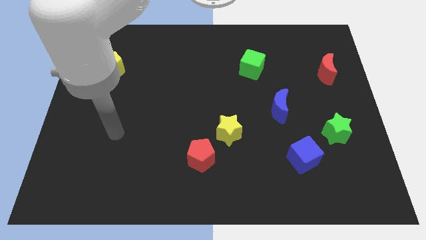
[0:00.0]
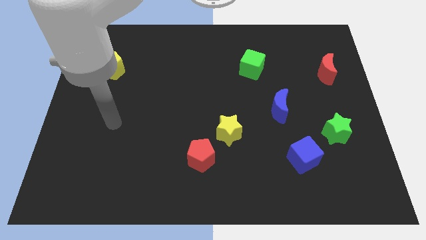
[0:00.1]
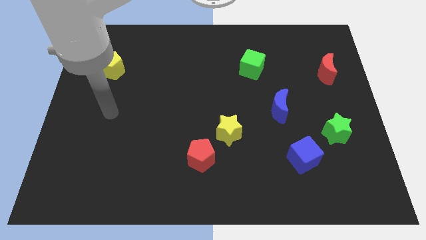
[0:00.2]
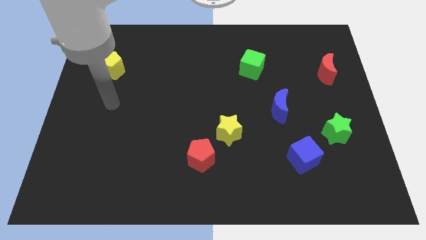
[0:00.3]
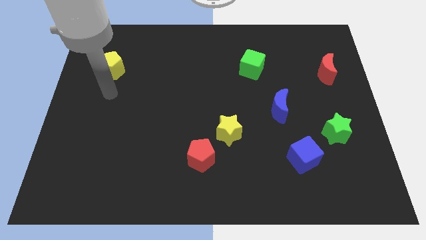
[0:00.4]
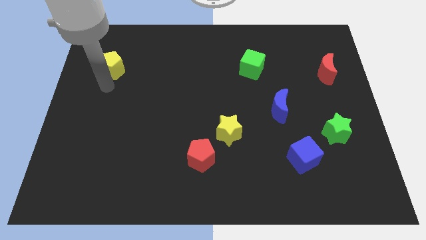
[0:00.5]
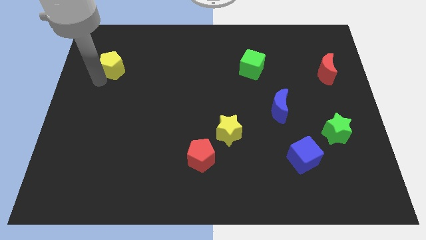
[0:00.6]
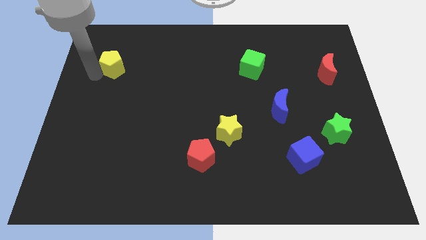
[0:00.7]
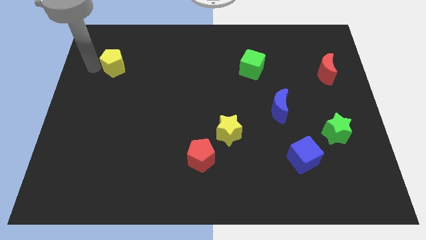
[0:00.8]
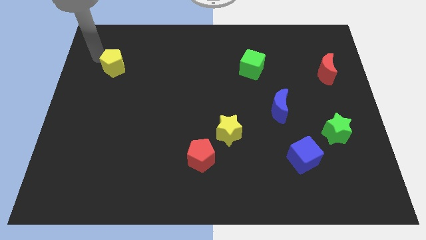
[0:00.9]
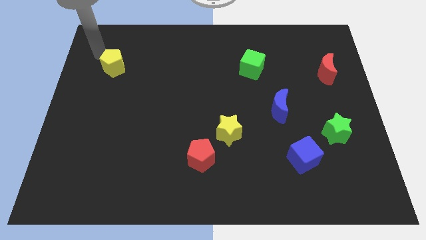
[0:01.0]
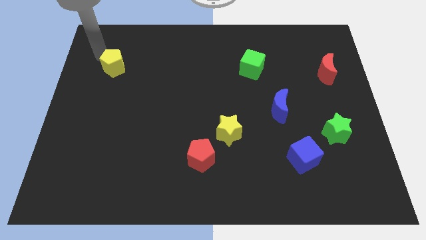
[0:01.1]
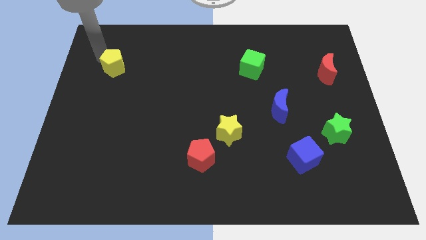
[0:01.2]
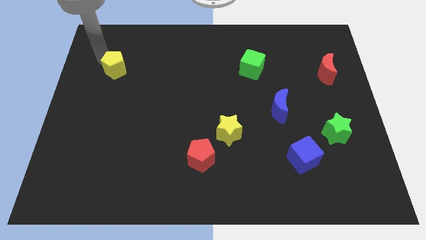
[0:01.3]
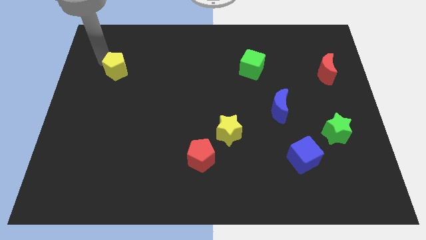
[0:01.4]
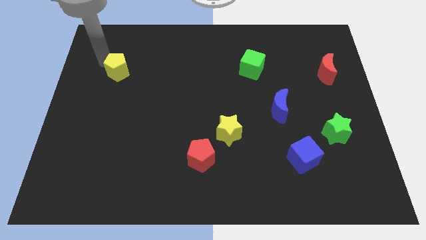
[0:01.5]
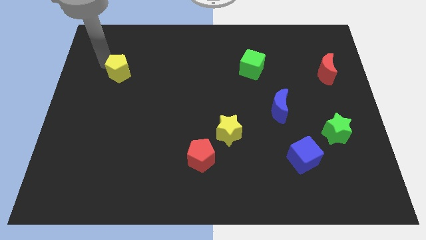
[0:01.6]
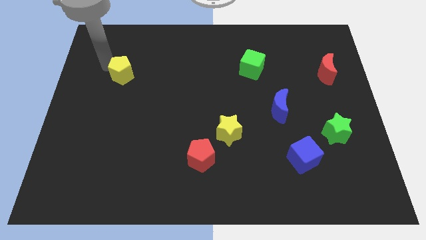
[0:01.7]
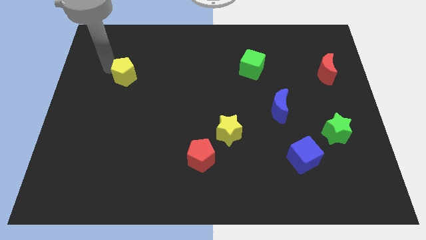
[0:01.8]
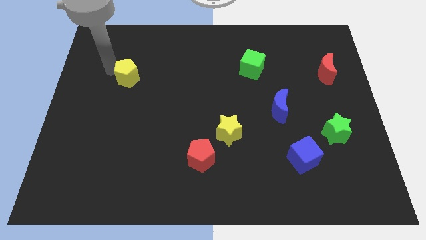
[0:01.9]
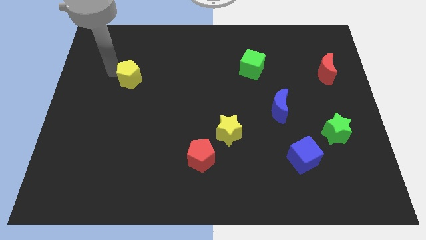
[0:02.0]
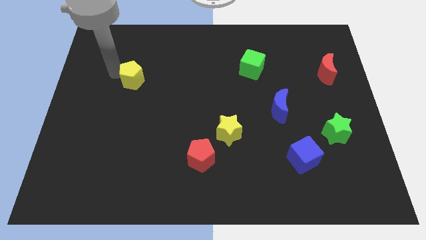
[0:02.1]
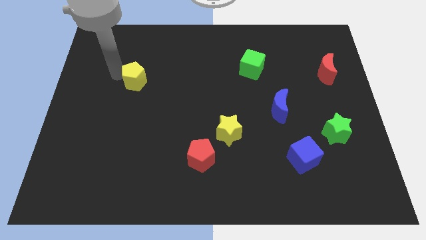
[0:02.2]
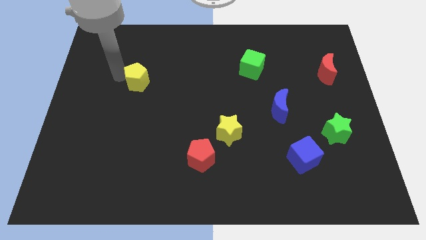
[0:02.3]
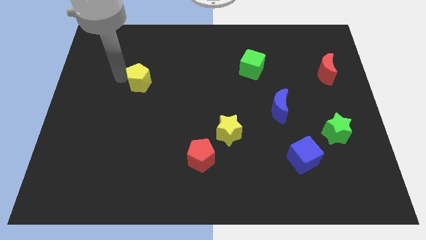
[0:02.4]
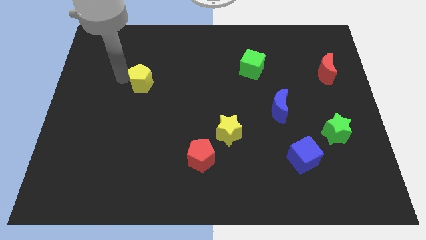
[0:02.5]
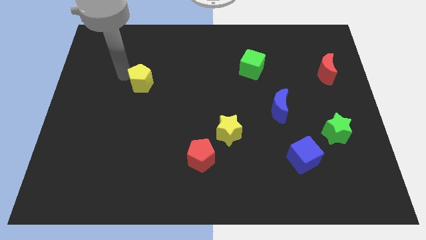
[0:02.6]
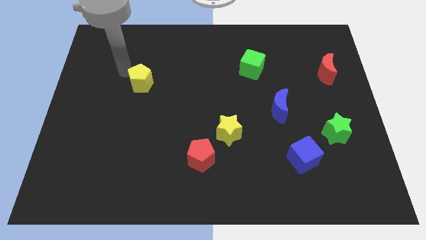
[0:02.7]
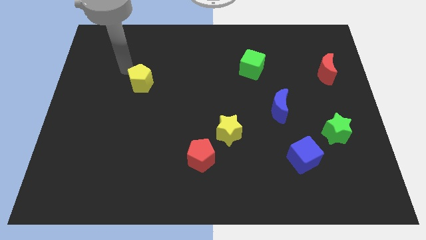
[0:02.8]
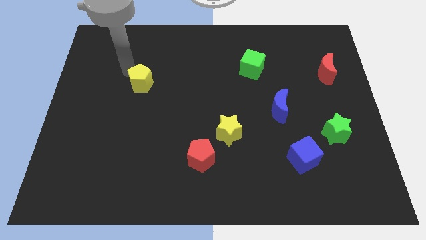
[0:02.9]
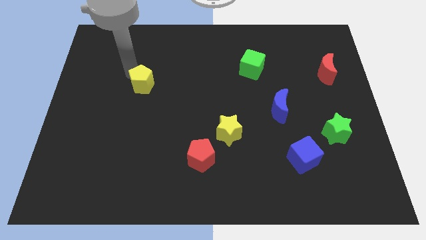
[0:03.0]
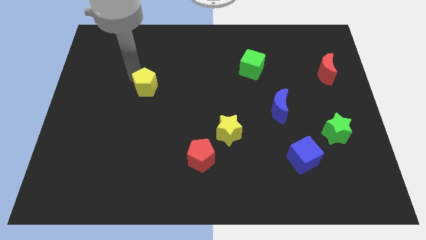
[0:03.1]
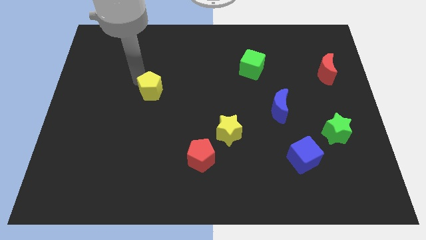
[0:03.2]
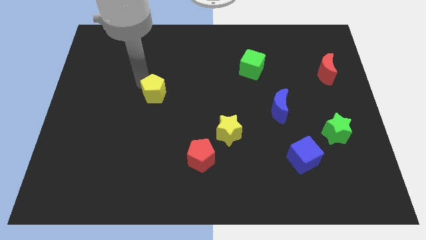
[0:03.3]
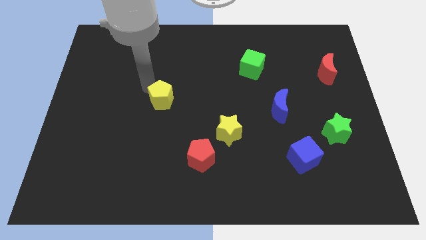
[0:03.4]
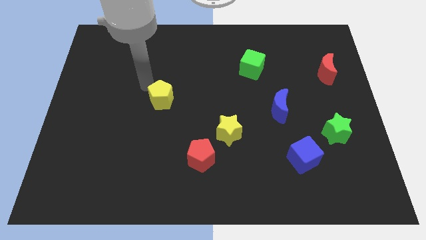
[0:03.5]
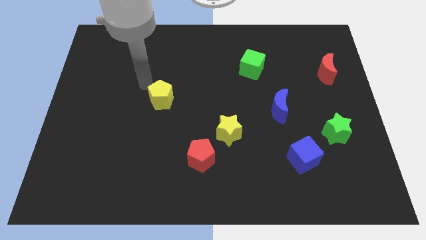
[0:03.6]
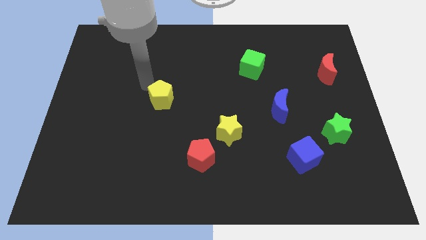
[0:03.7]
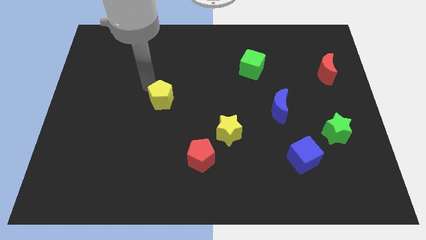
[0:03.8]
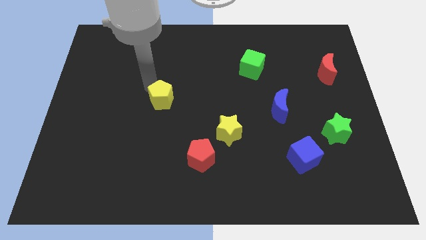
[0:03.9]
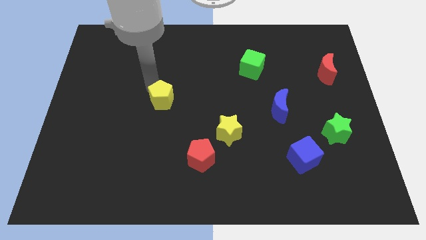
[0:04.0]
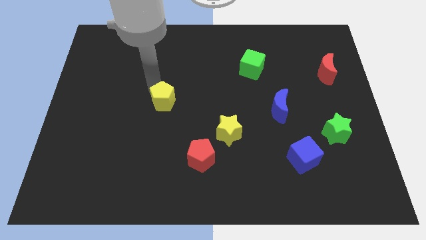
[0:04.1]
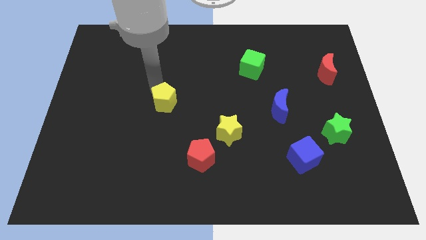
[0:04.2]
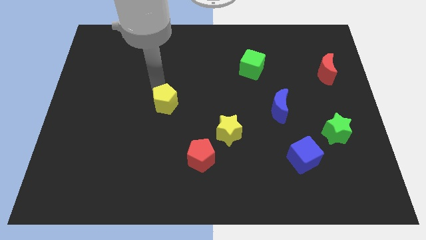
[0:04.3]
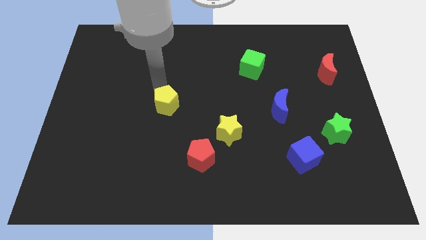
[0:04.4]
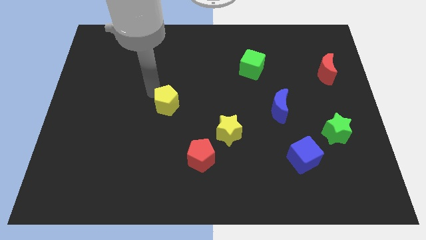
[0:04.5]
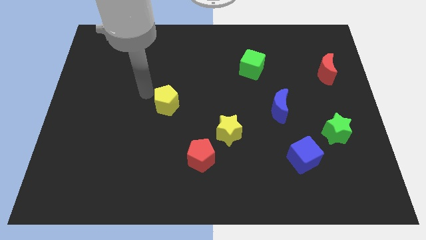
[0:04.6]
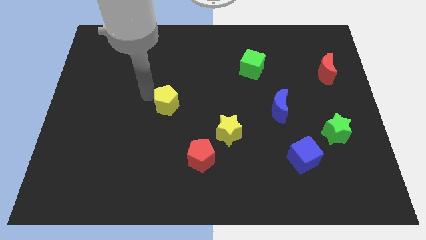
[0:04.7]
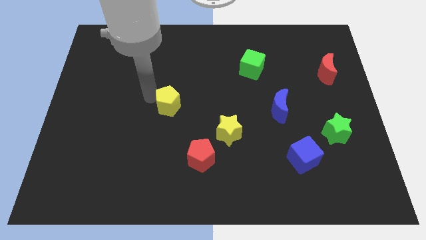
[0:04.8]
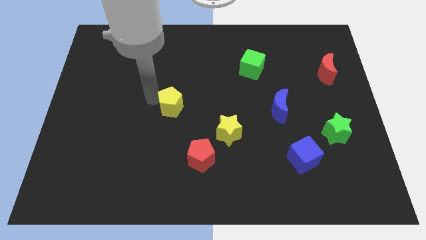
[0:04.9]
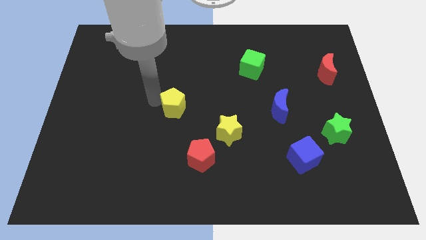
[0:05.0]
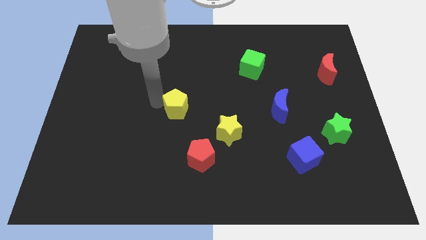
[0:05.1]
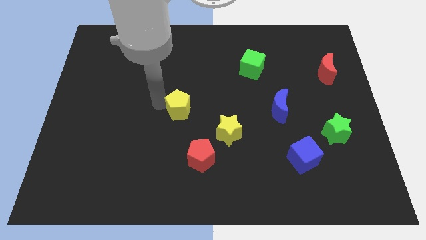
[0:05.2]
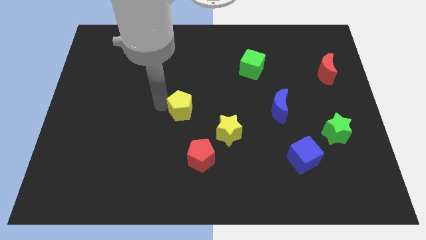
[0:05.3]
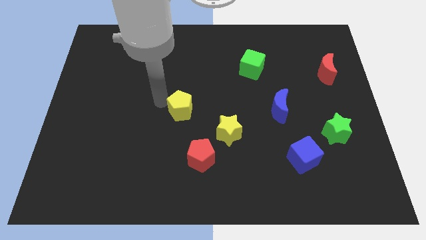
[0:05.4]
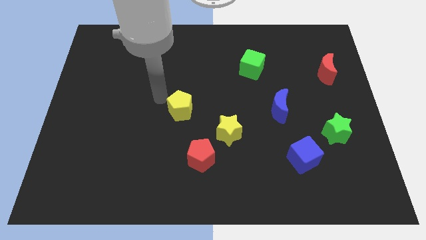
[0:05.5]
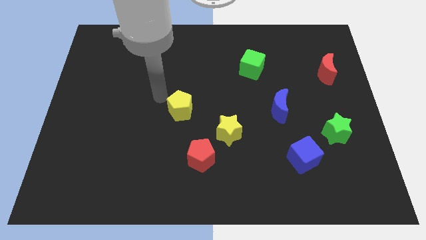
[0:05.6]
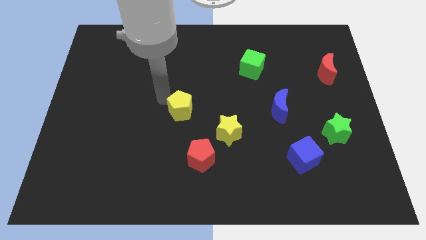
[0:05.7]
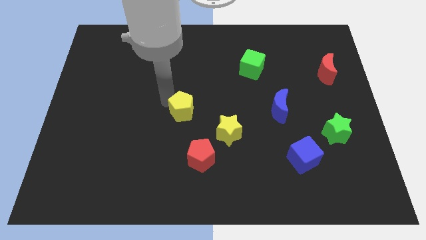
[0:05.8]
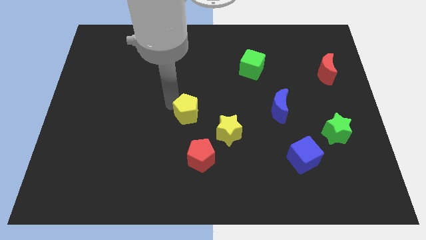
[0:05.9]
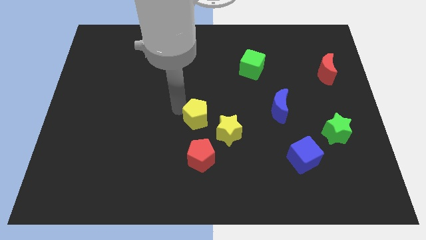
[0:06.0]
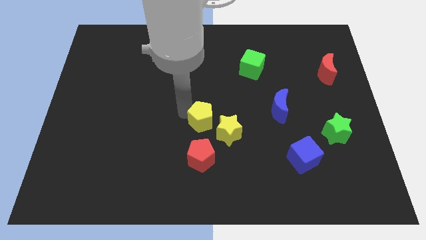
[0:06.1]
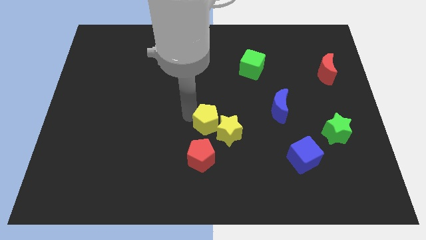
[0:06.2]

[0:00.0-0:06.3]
move the yellow pentagon close to the yellow star
